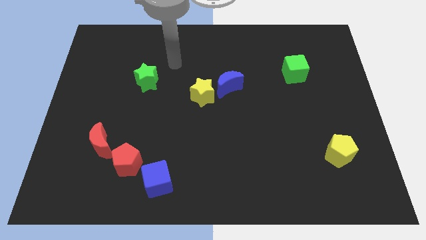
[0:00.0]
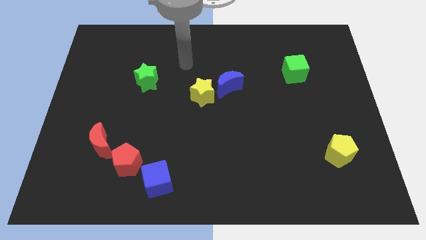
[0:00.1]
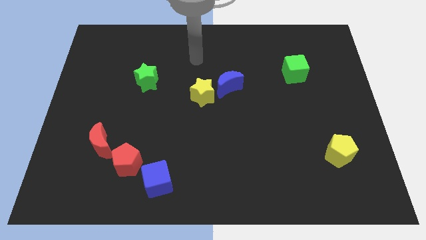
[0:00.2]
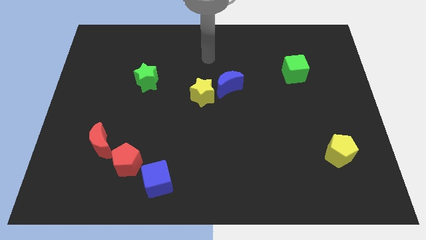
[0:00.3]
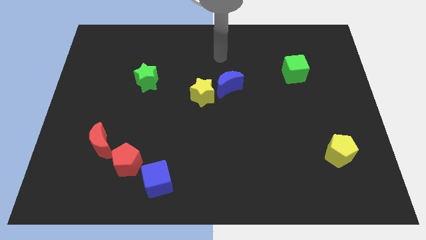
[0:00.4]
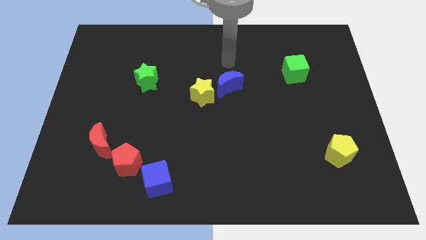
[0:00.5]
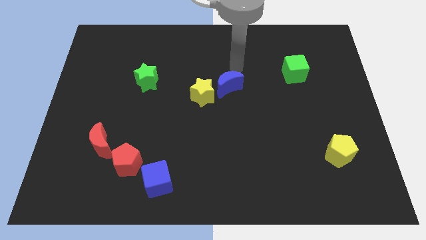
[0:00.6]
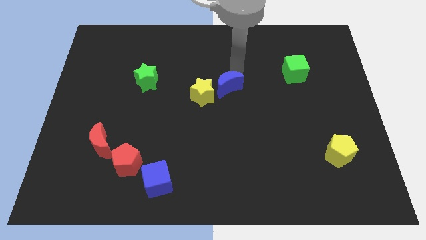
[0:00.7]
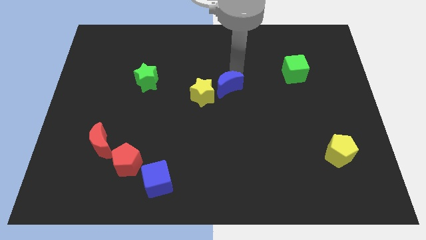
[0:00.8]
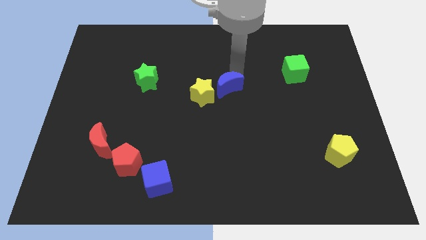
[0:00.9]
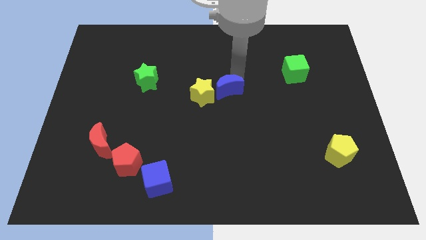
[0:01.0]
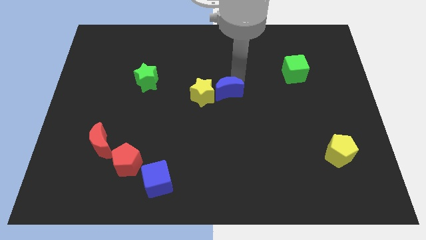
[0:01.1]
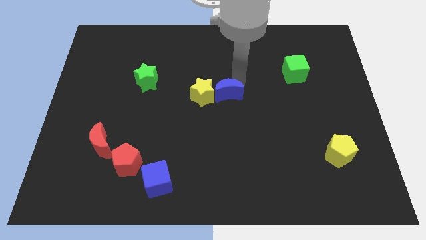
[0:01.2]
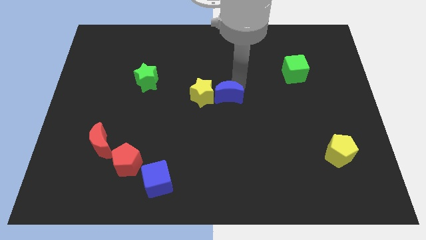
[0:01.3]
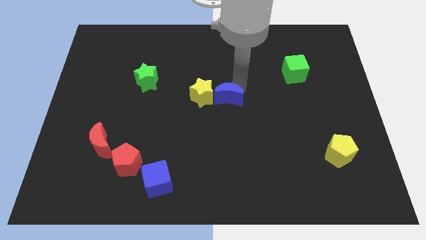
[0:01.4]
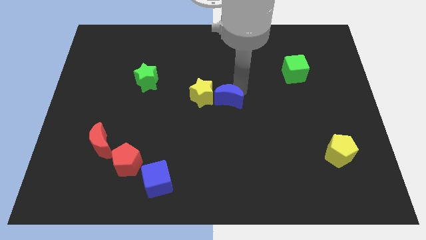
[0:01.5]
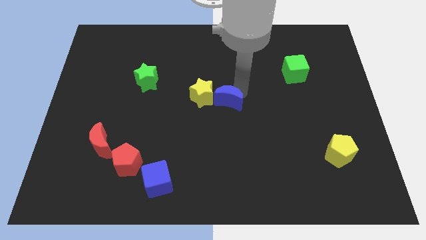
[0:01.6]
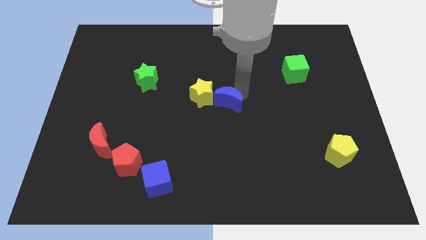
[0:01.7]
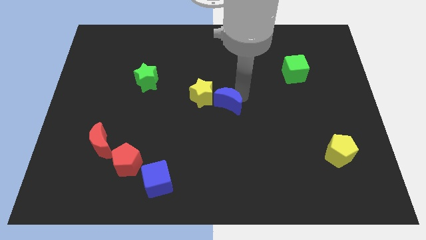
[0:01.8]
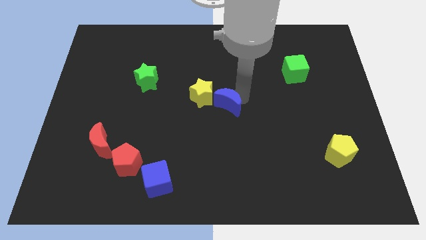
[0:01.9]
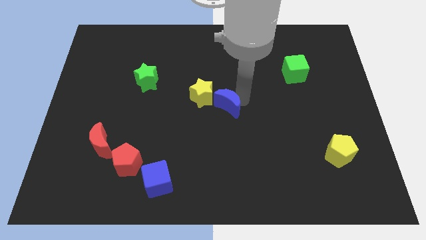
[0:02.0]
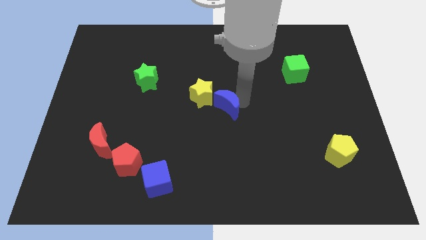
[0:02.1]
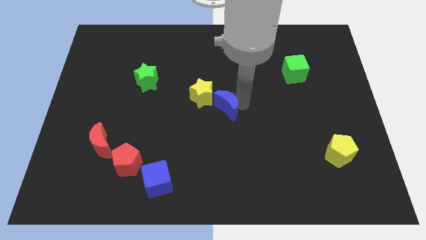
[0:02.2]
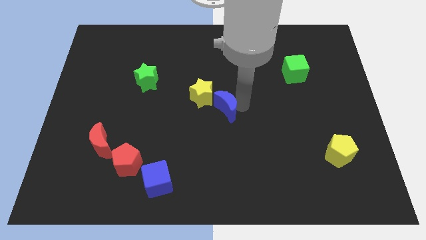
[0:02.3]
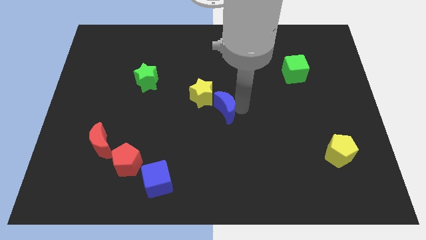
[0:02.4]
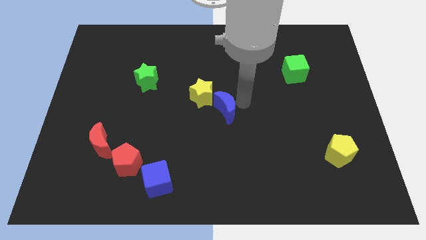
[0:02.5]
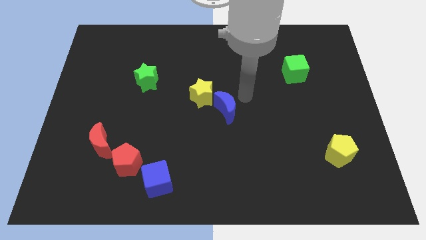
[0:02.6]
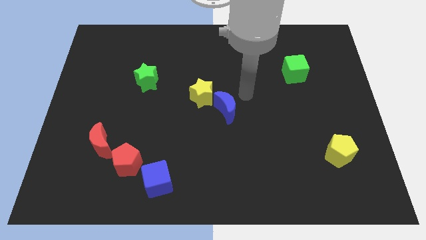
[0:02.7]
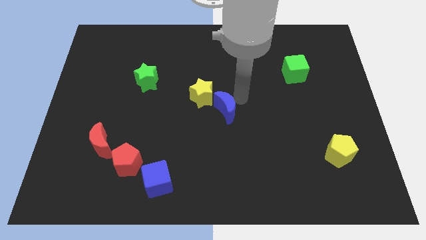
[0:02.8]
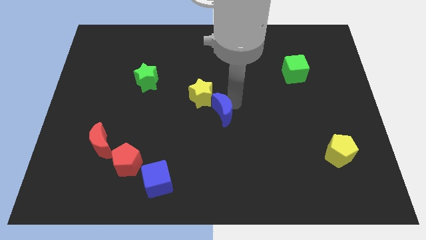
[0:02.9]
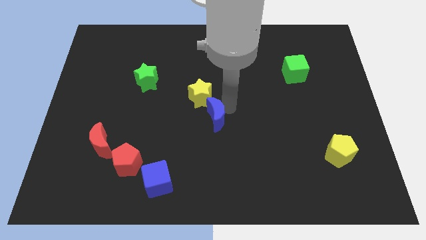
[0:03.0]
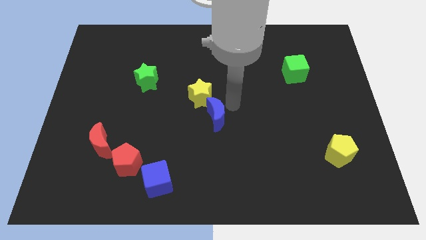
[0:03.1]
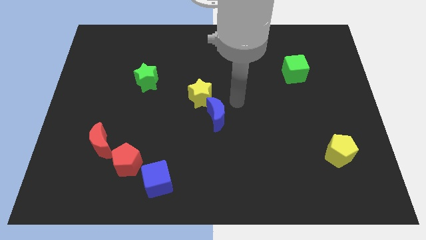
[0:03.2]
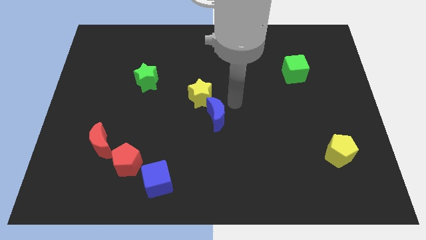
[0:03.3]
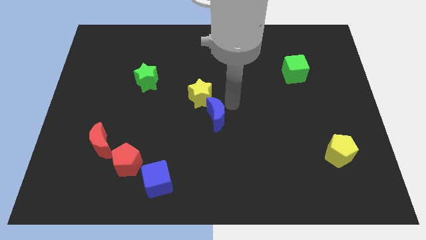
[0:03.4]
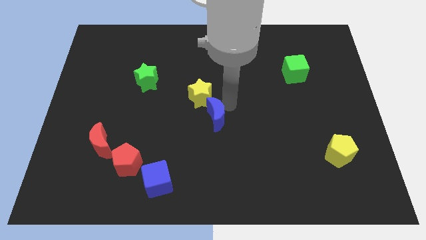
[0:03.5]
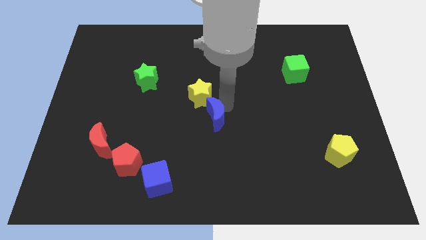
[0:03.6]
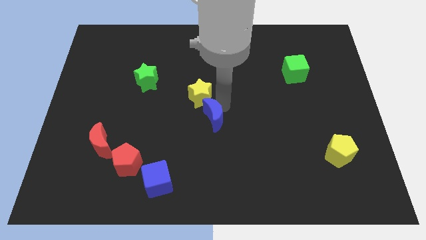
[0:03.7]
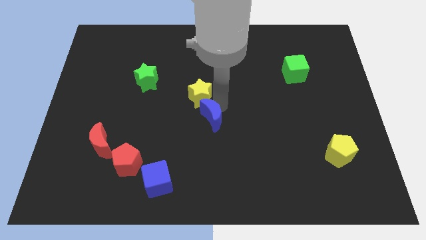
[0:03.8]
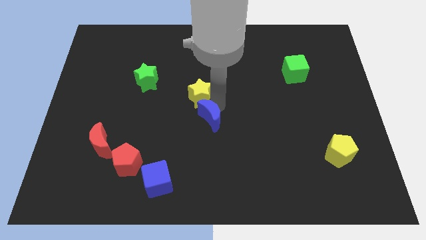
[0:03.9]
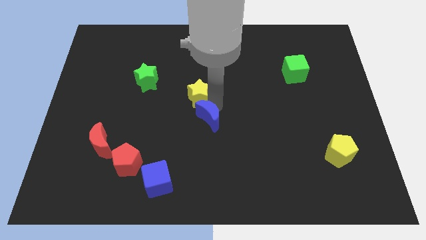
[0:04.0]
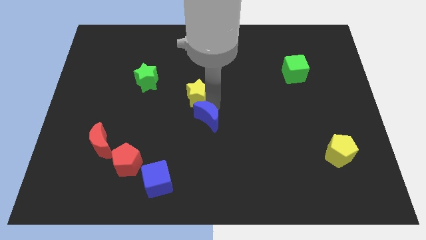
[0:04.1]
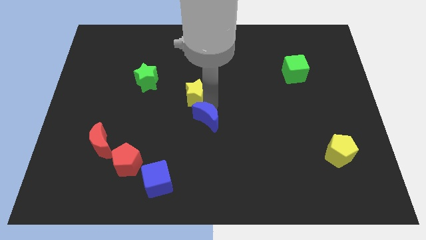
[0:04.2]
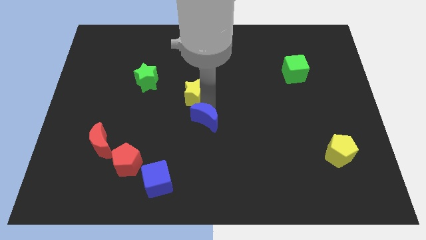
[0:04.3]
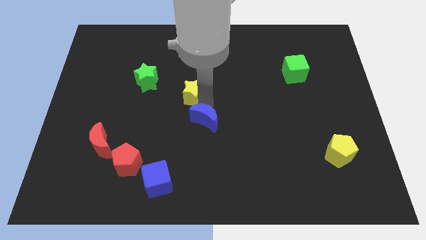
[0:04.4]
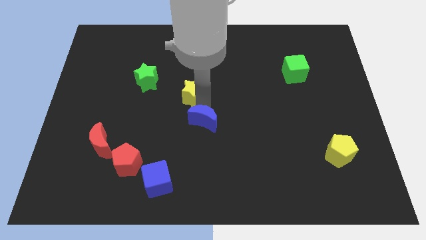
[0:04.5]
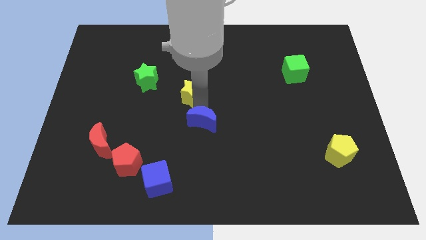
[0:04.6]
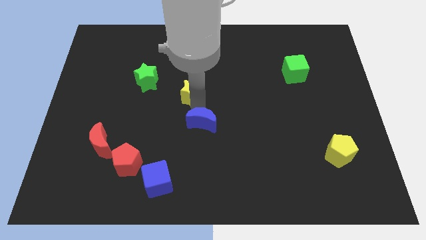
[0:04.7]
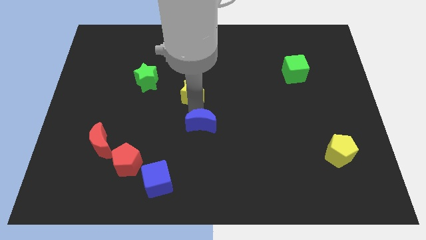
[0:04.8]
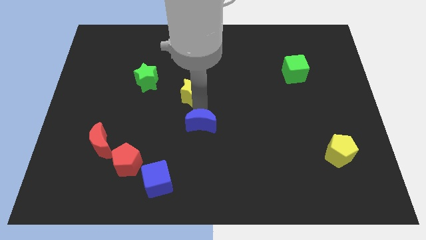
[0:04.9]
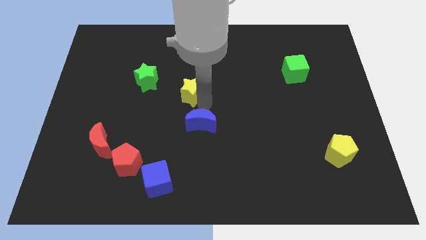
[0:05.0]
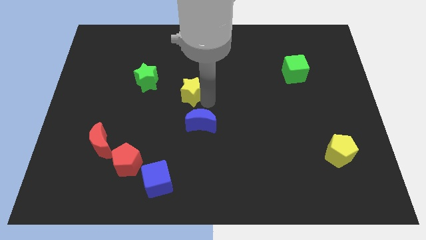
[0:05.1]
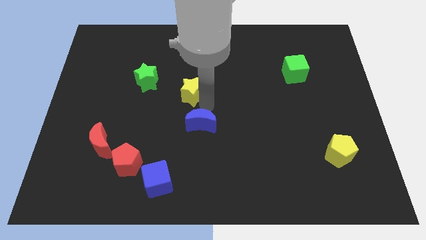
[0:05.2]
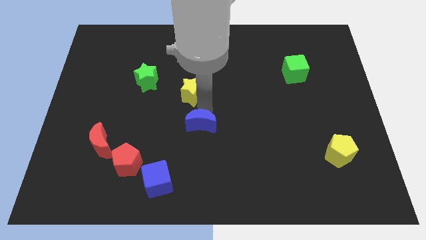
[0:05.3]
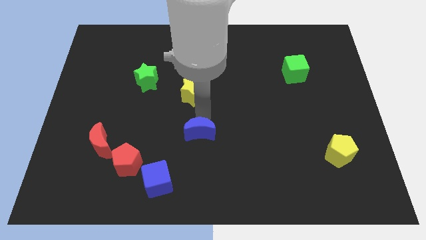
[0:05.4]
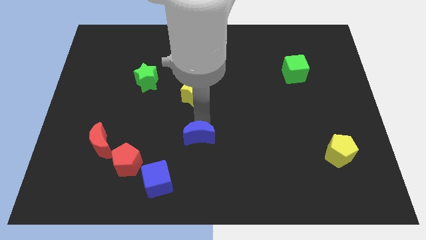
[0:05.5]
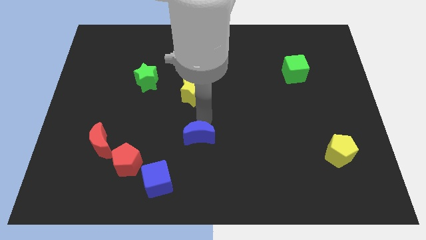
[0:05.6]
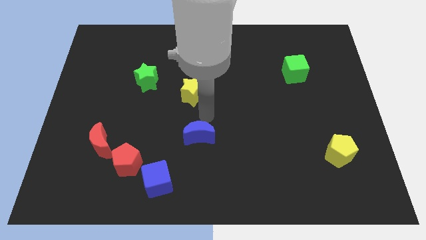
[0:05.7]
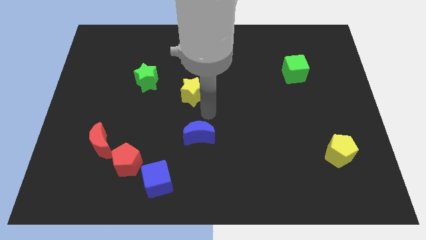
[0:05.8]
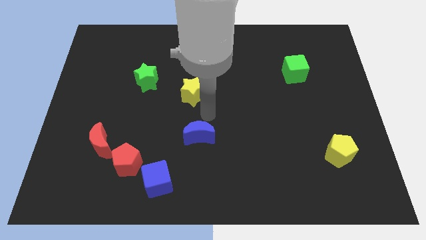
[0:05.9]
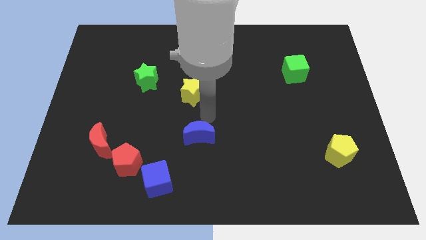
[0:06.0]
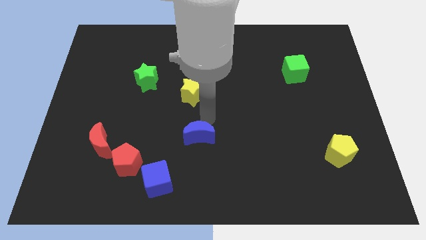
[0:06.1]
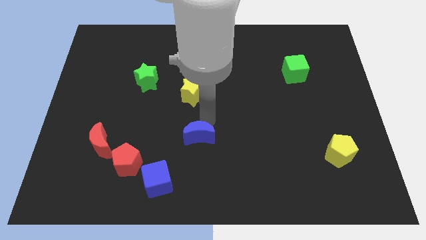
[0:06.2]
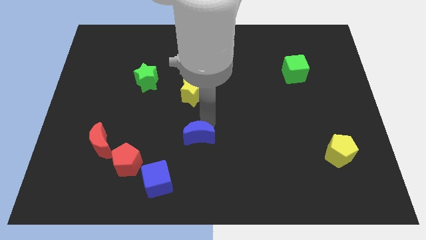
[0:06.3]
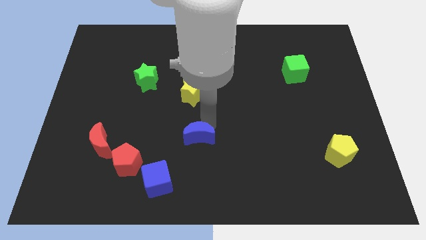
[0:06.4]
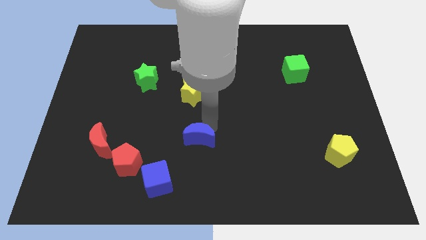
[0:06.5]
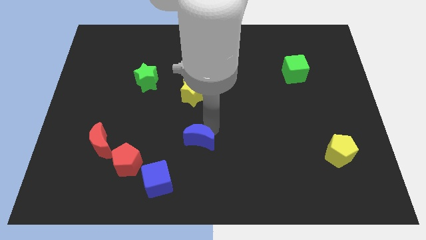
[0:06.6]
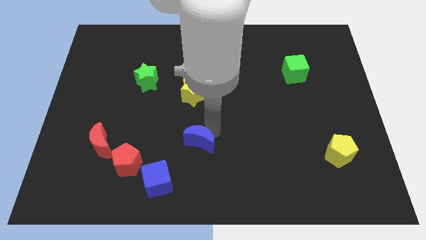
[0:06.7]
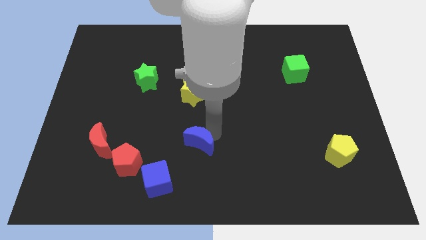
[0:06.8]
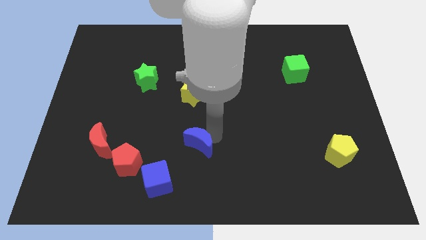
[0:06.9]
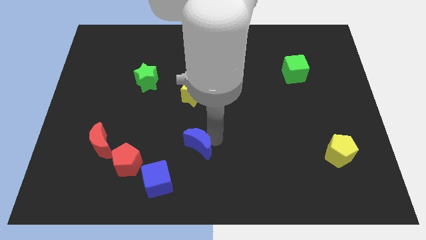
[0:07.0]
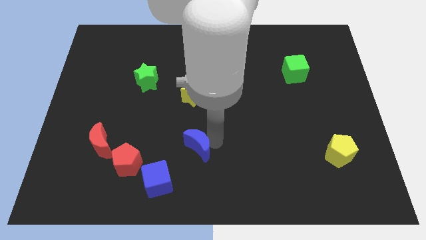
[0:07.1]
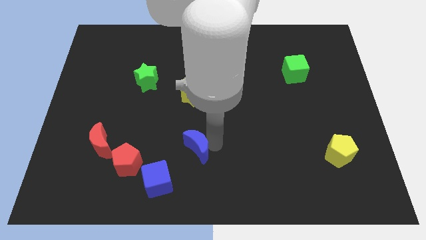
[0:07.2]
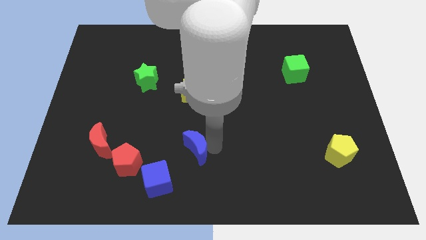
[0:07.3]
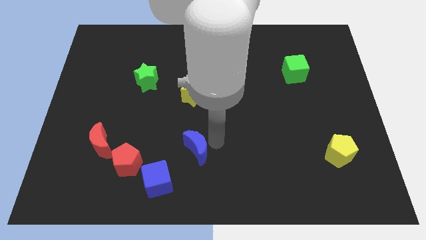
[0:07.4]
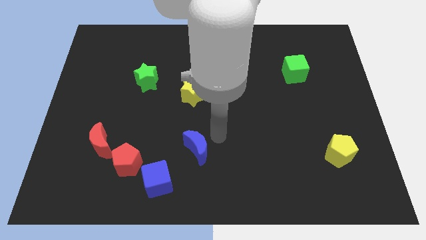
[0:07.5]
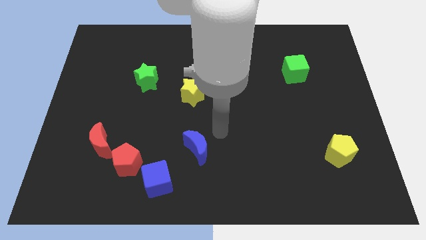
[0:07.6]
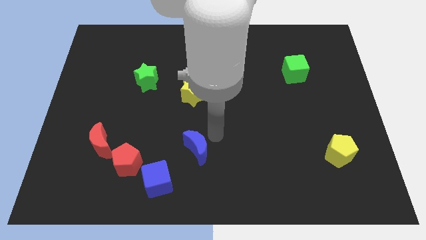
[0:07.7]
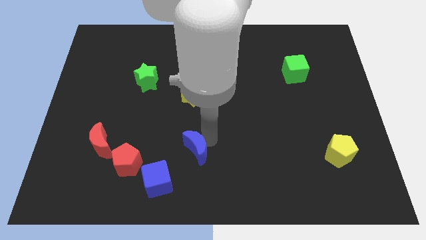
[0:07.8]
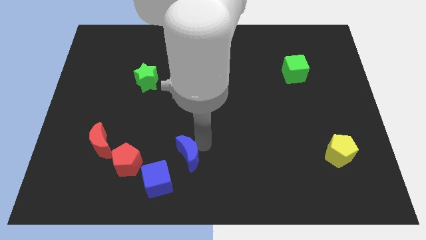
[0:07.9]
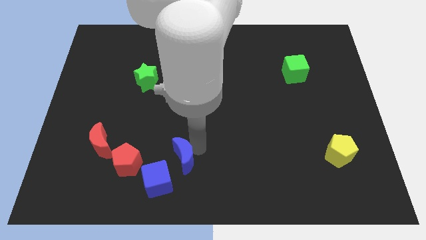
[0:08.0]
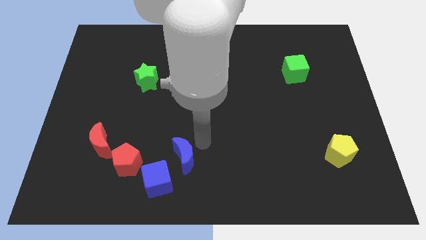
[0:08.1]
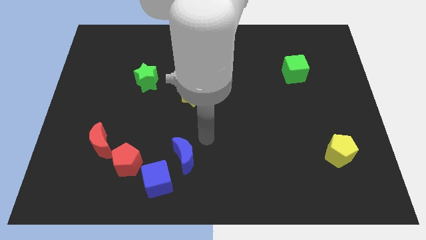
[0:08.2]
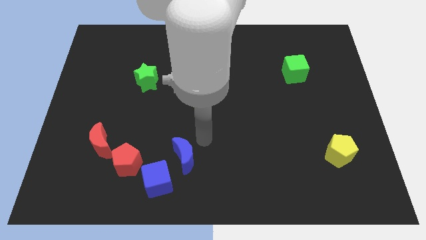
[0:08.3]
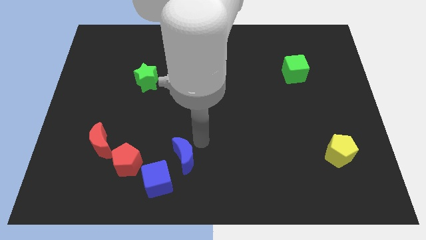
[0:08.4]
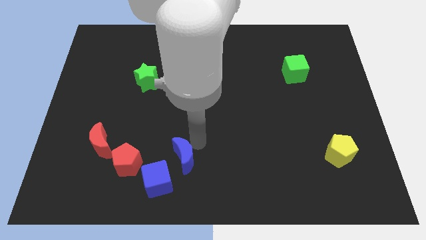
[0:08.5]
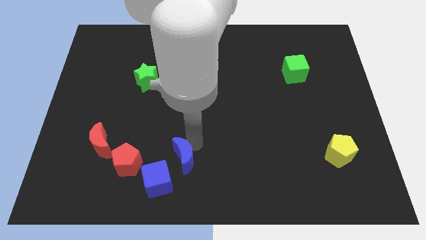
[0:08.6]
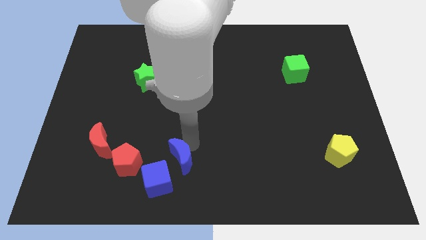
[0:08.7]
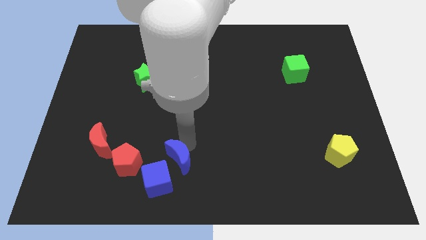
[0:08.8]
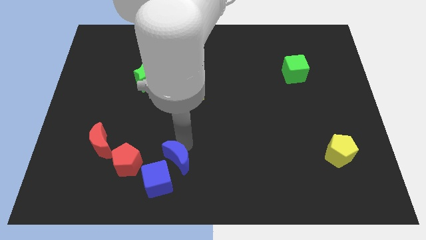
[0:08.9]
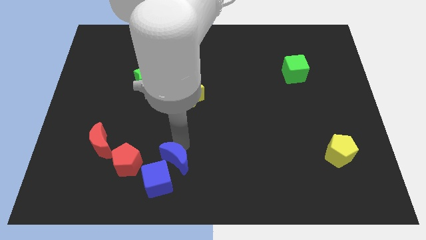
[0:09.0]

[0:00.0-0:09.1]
slide the blue moon towards the blue cube
